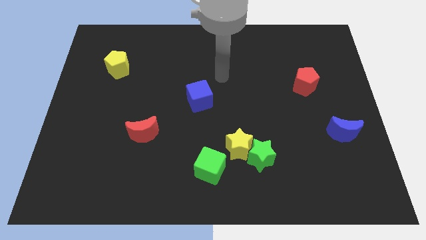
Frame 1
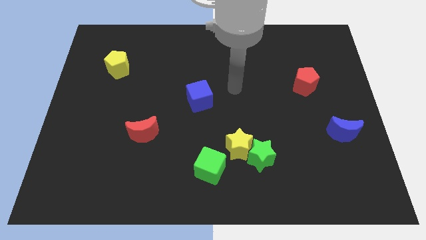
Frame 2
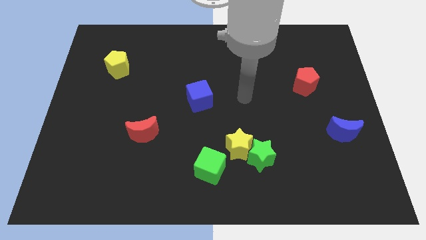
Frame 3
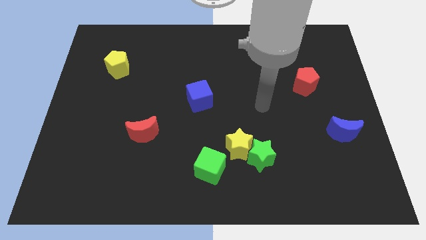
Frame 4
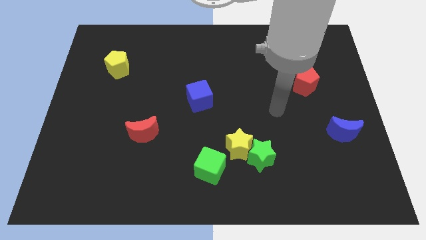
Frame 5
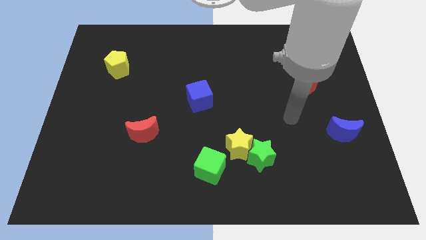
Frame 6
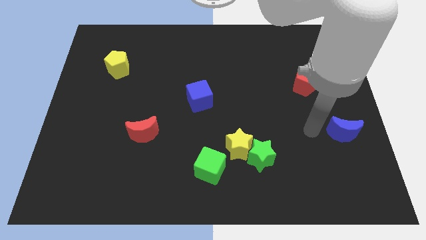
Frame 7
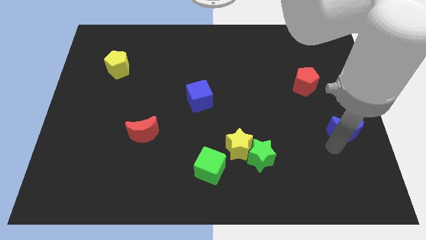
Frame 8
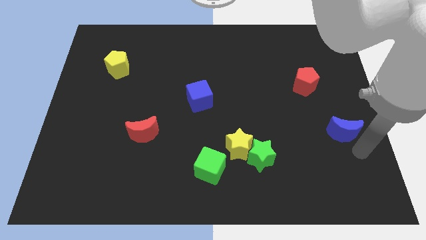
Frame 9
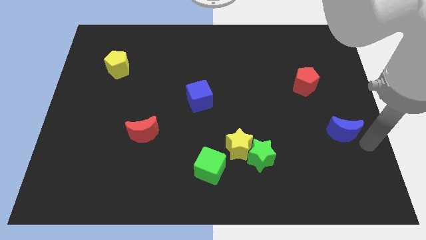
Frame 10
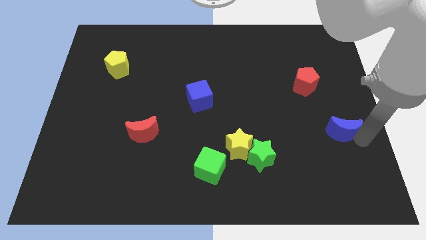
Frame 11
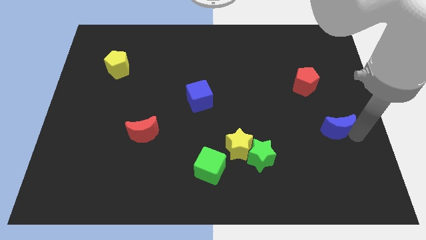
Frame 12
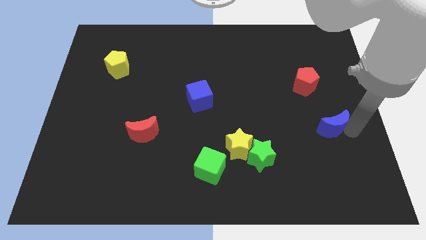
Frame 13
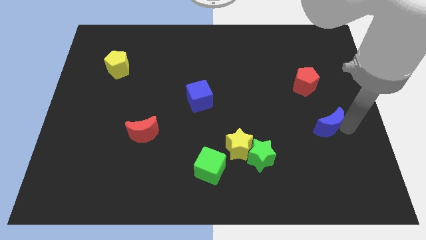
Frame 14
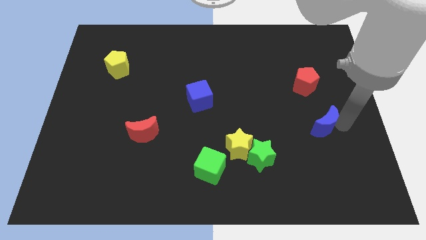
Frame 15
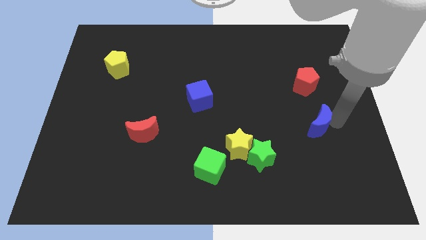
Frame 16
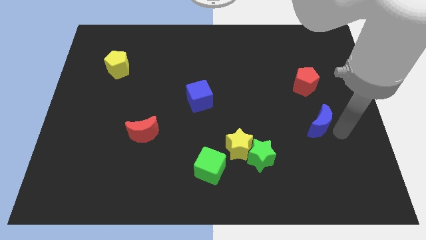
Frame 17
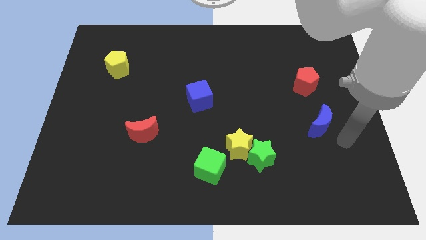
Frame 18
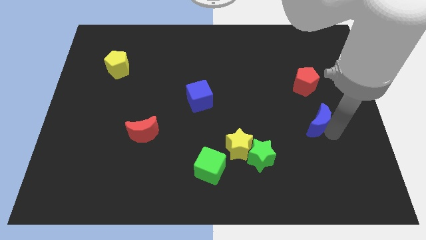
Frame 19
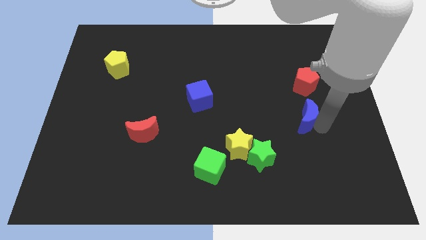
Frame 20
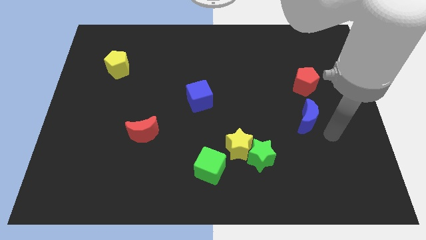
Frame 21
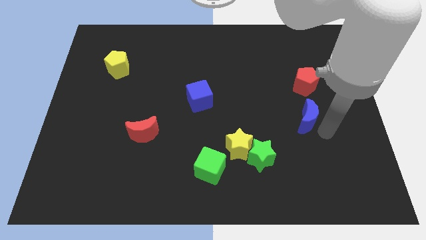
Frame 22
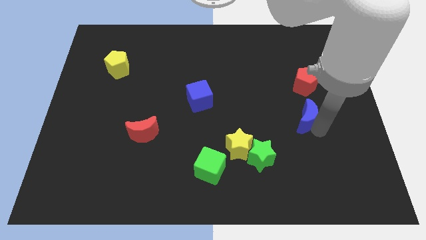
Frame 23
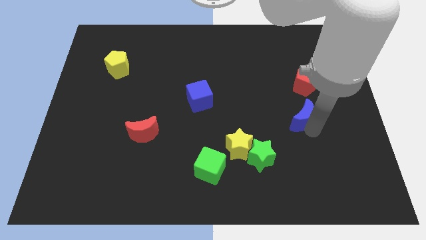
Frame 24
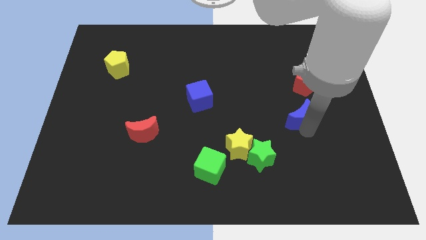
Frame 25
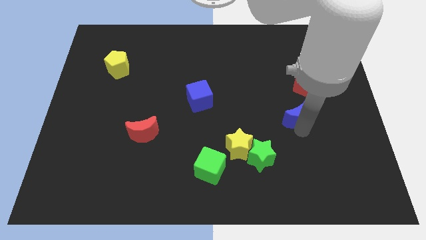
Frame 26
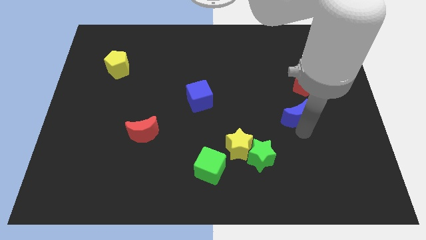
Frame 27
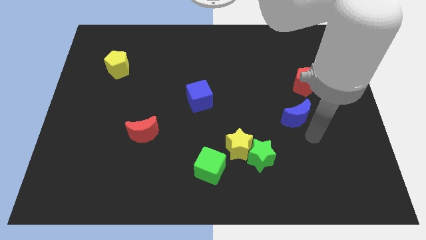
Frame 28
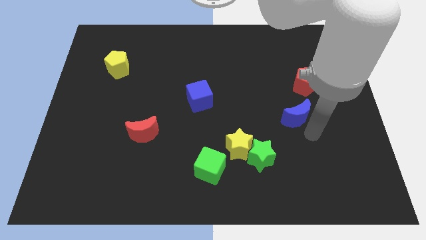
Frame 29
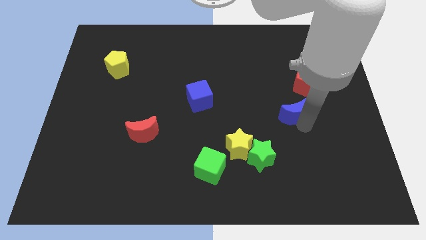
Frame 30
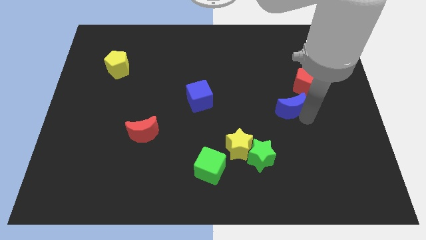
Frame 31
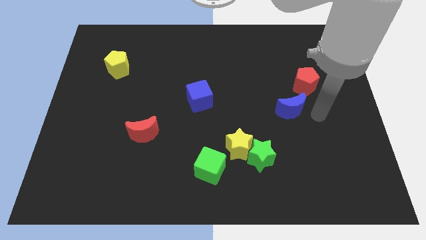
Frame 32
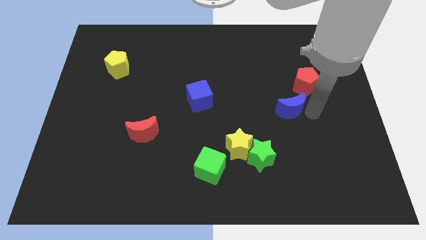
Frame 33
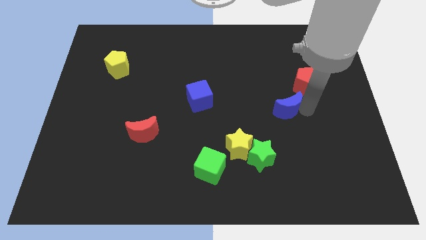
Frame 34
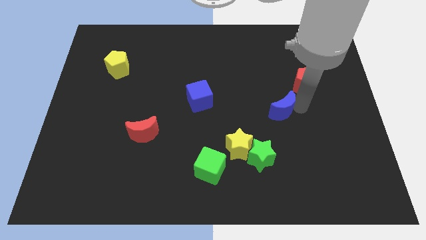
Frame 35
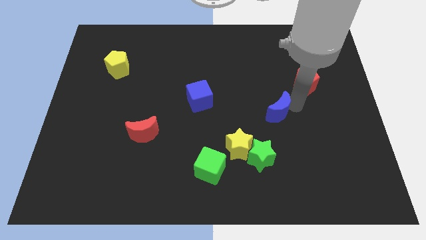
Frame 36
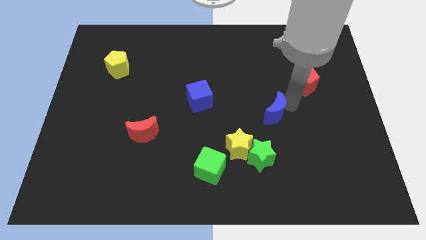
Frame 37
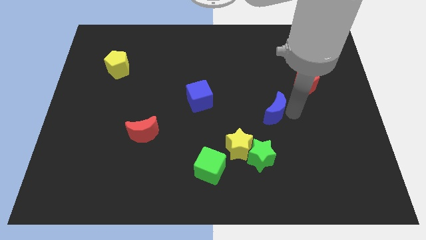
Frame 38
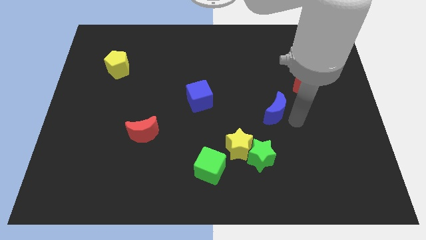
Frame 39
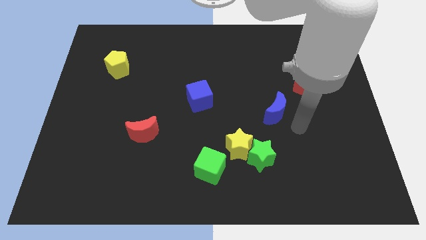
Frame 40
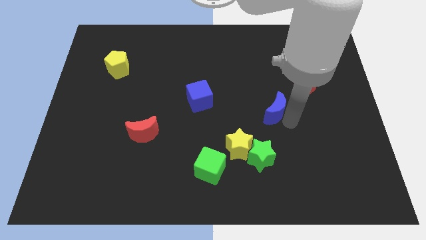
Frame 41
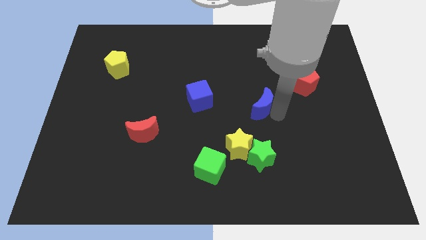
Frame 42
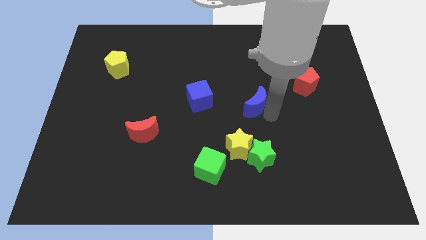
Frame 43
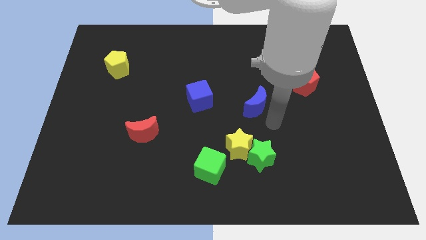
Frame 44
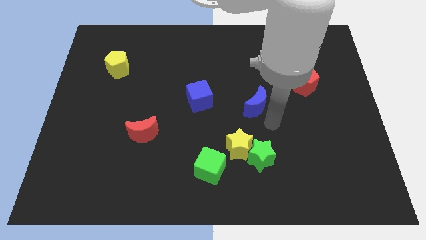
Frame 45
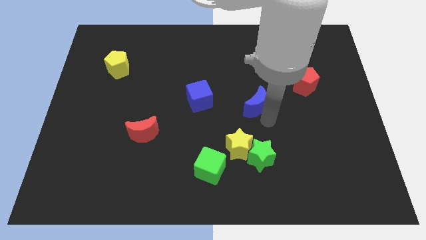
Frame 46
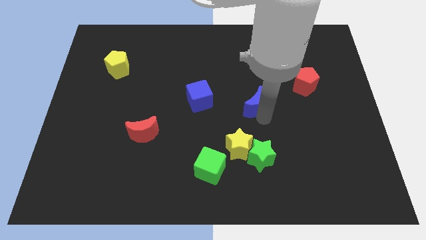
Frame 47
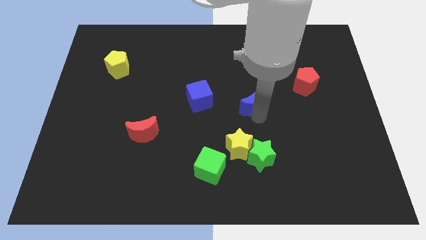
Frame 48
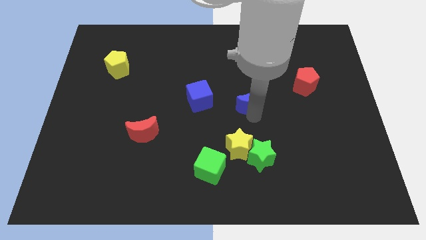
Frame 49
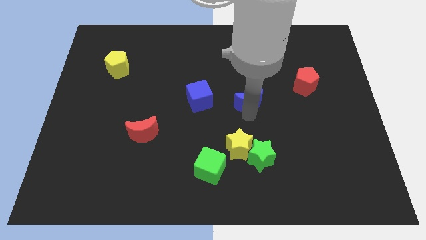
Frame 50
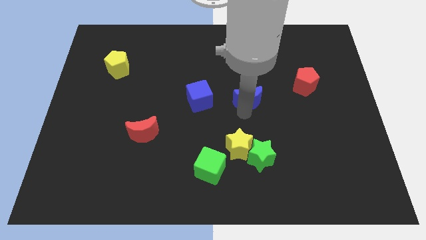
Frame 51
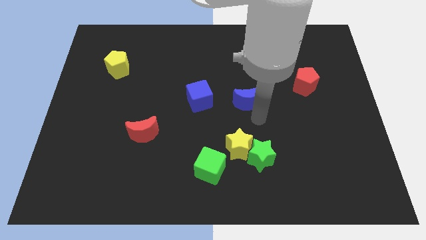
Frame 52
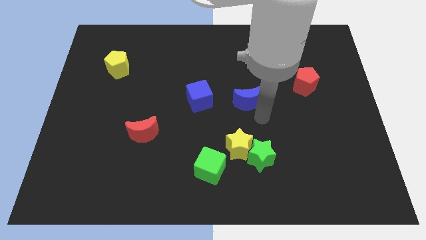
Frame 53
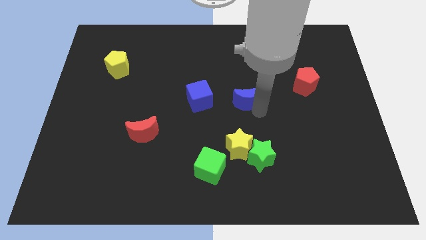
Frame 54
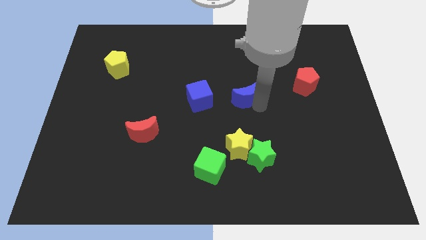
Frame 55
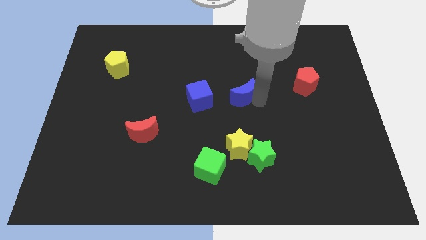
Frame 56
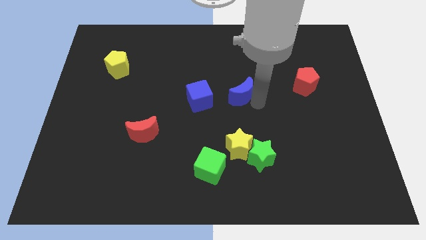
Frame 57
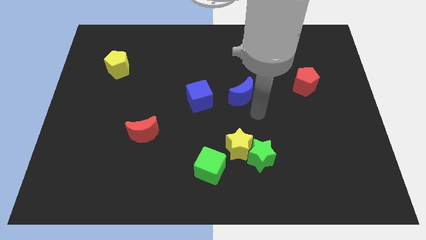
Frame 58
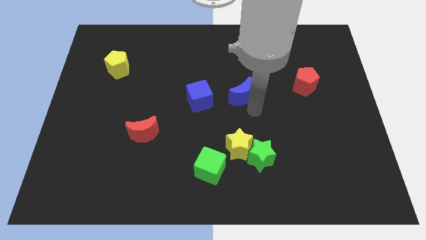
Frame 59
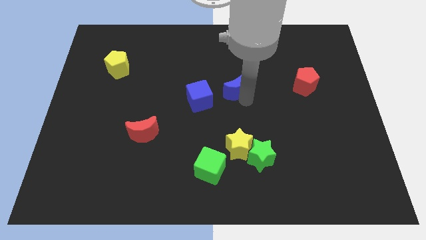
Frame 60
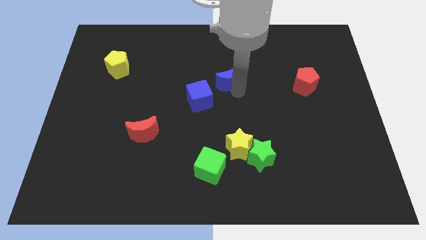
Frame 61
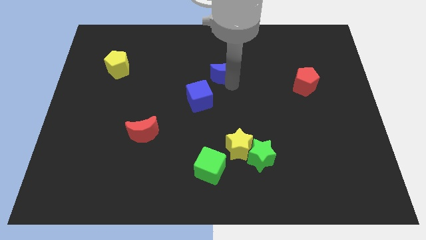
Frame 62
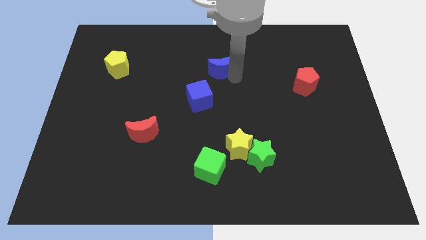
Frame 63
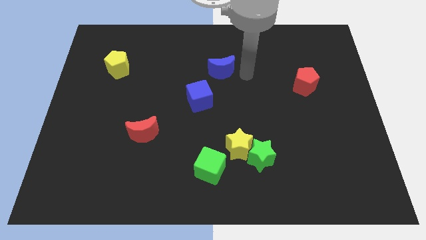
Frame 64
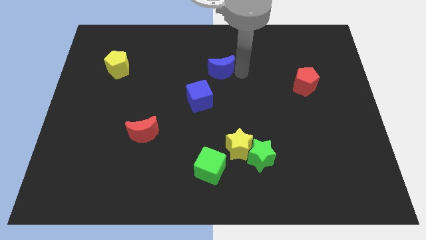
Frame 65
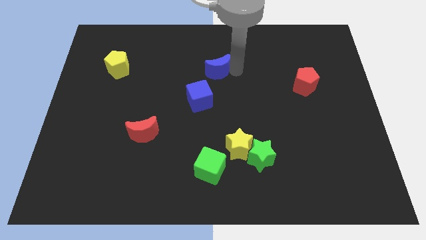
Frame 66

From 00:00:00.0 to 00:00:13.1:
put the blue moon to the top side of the blue cube
